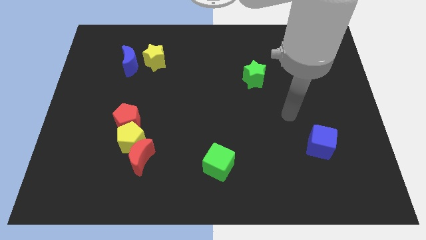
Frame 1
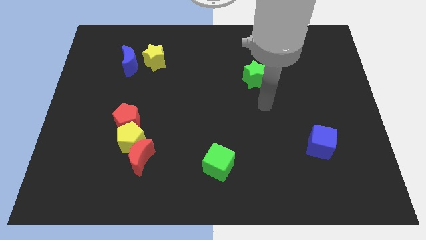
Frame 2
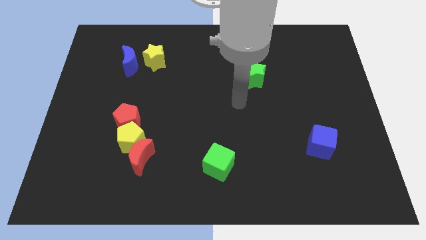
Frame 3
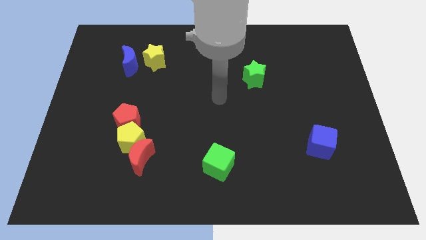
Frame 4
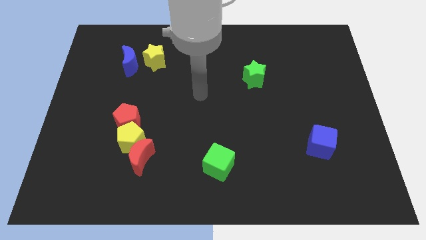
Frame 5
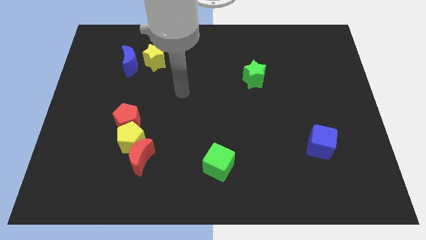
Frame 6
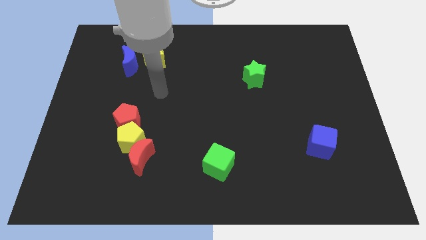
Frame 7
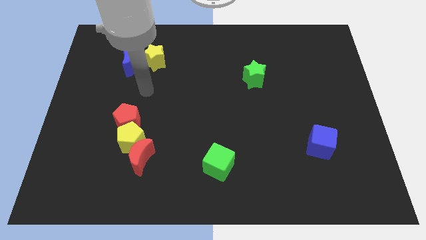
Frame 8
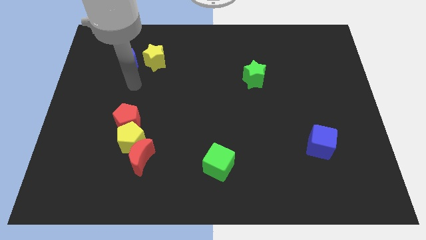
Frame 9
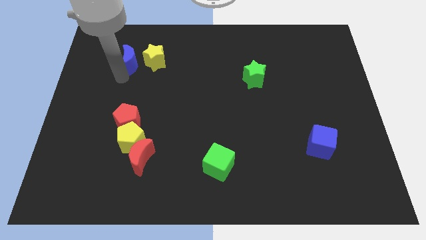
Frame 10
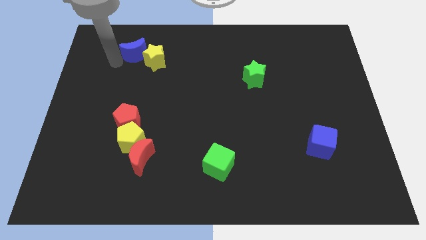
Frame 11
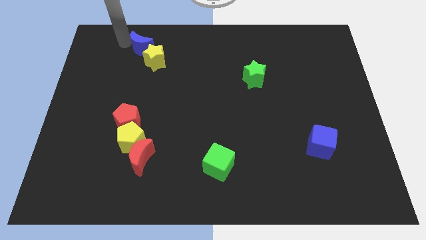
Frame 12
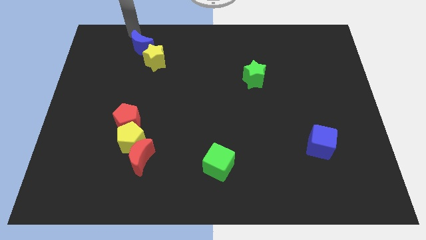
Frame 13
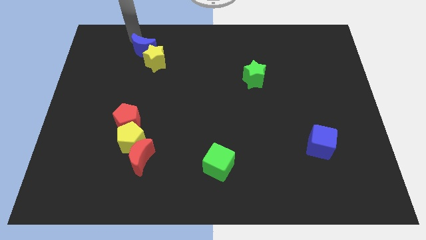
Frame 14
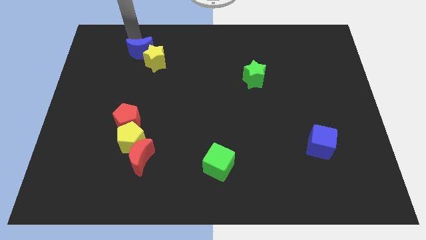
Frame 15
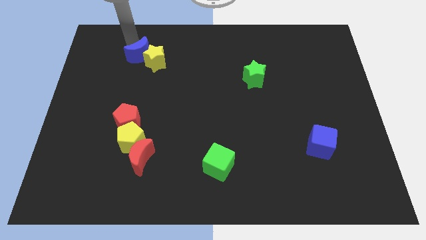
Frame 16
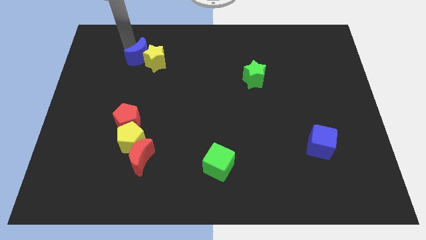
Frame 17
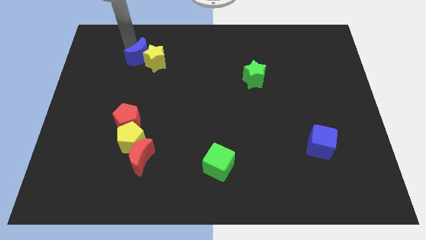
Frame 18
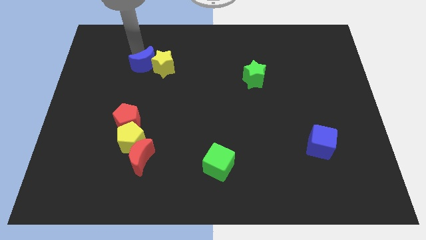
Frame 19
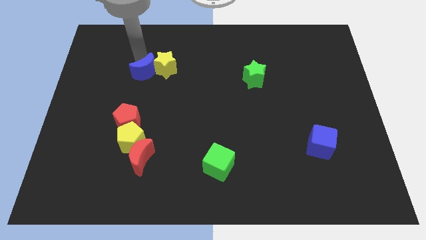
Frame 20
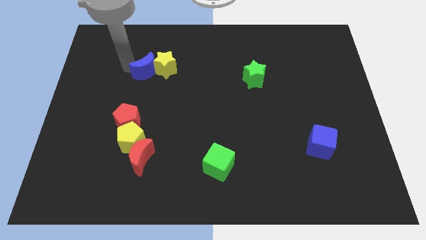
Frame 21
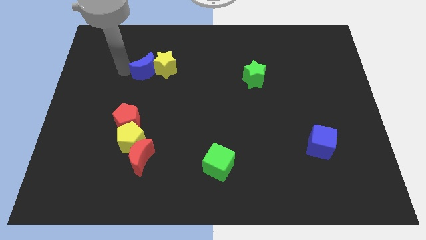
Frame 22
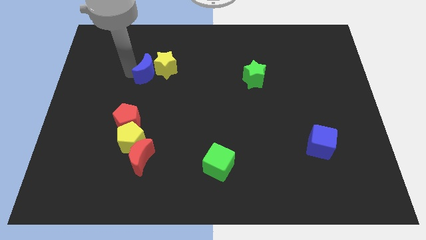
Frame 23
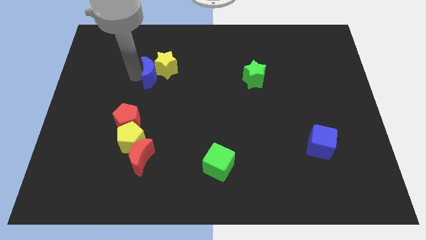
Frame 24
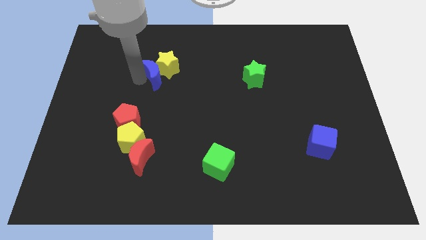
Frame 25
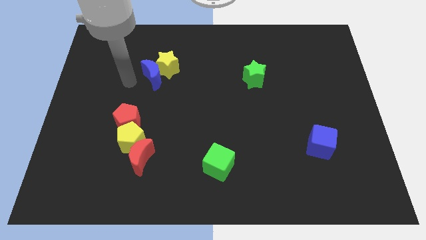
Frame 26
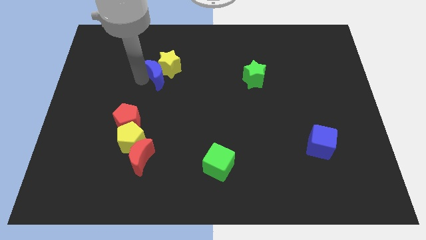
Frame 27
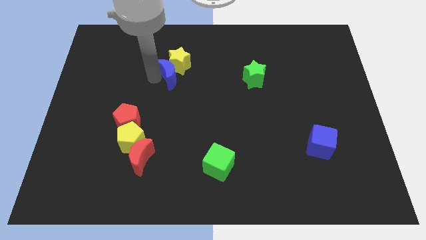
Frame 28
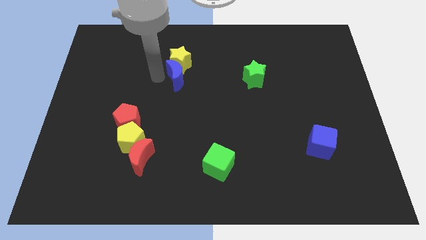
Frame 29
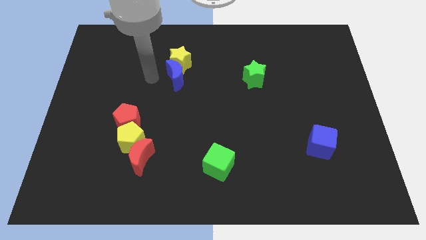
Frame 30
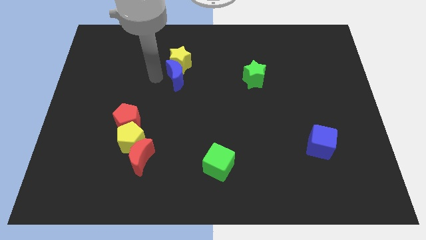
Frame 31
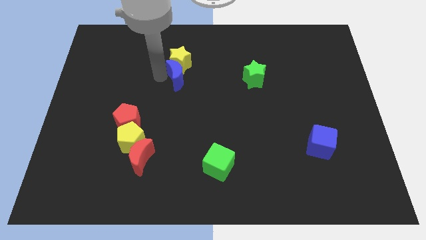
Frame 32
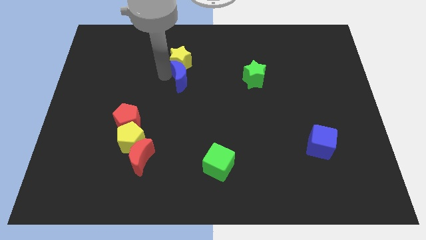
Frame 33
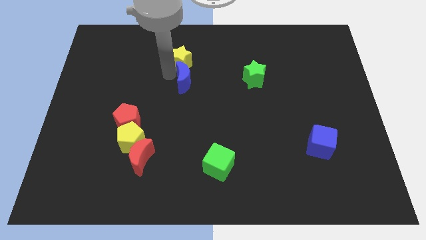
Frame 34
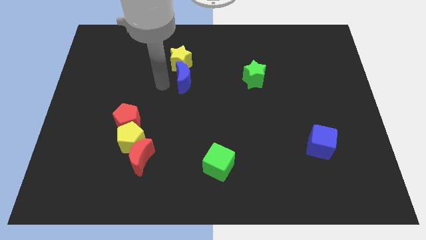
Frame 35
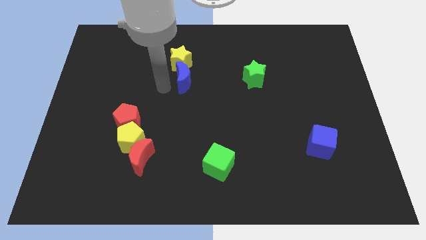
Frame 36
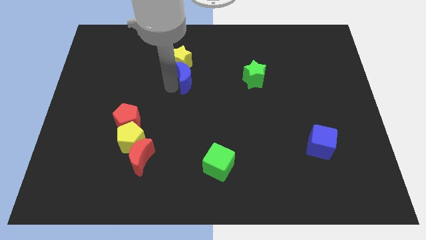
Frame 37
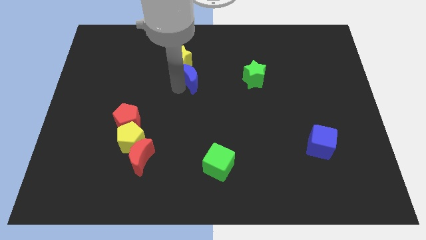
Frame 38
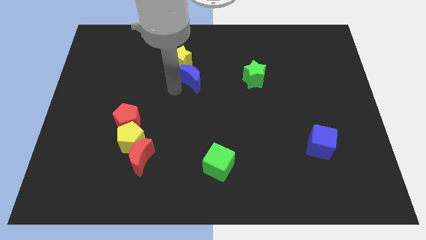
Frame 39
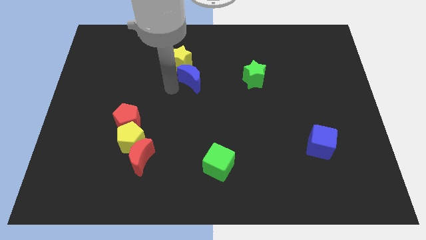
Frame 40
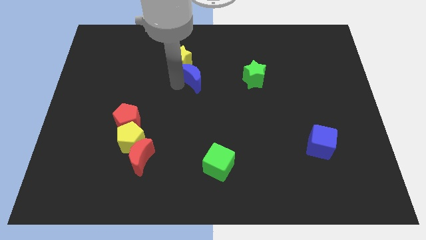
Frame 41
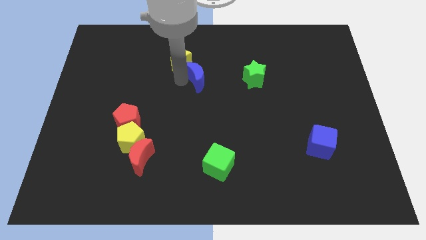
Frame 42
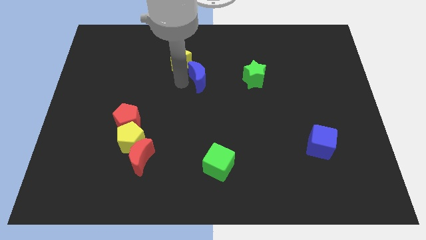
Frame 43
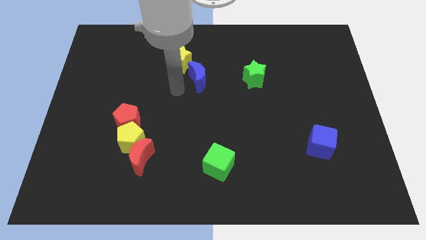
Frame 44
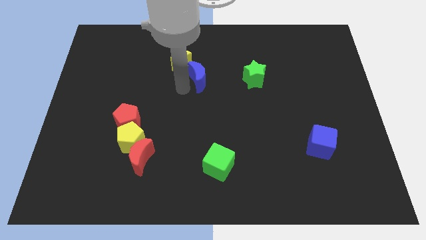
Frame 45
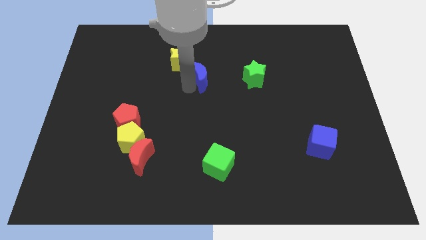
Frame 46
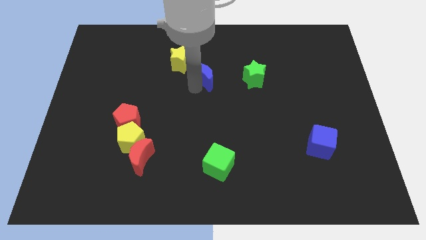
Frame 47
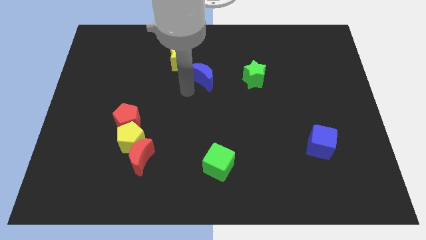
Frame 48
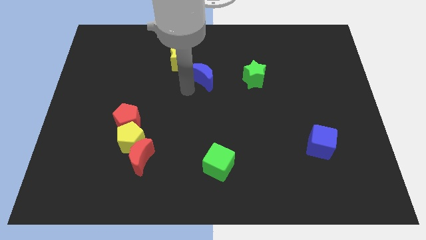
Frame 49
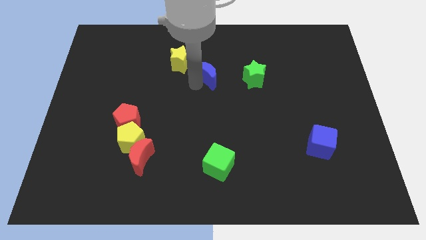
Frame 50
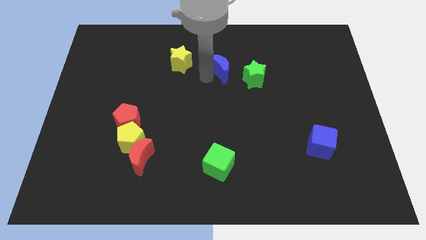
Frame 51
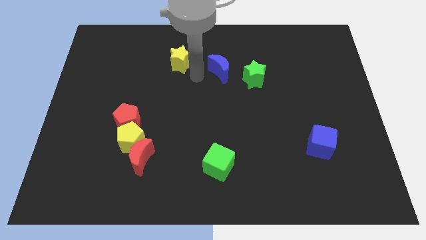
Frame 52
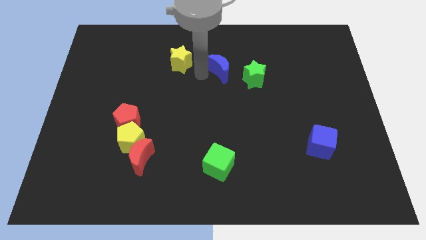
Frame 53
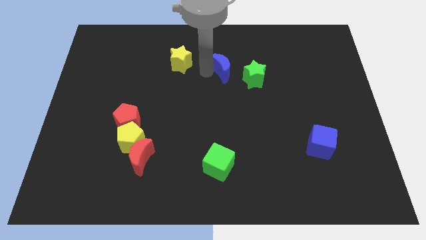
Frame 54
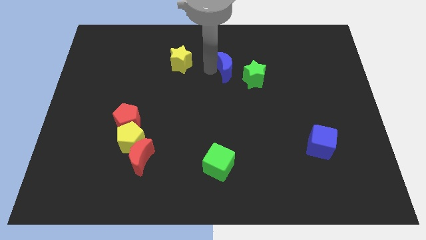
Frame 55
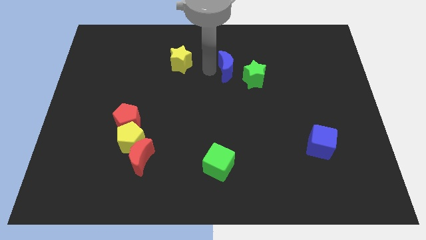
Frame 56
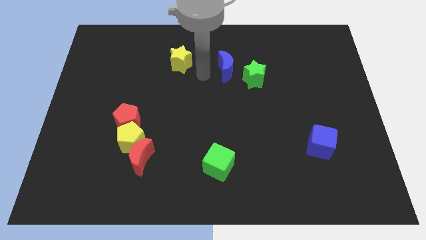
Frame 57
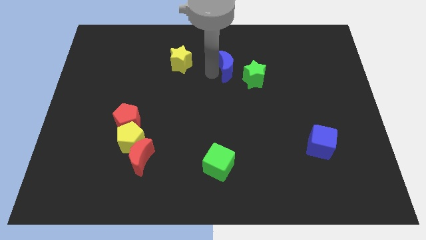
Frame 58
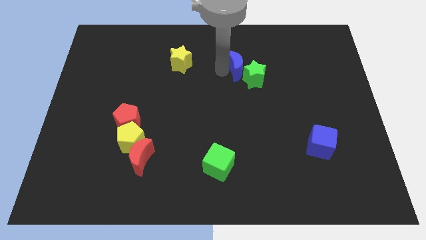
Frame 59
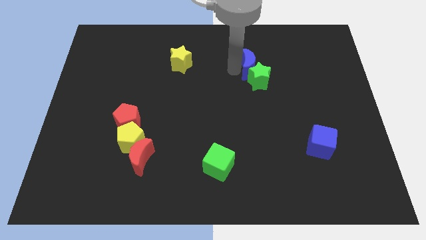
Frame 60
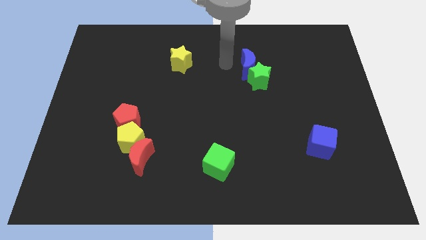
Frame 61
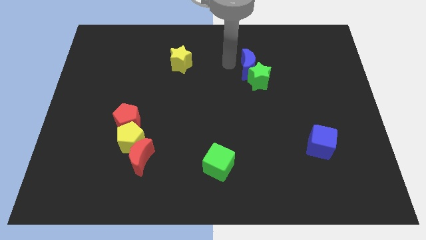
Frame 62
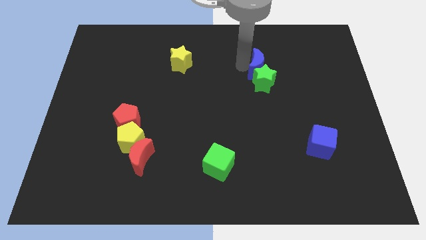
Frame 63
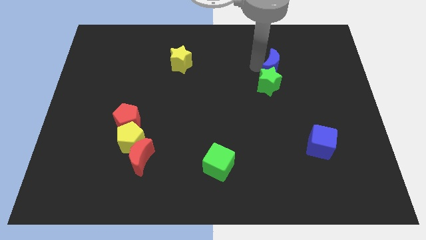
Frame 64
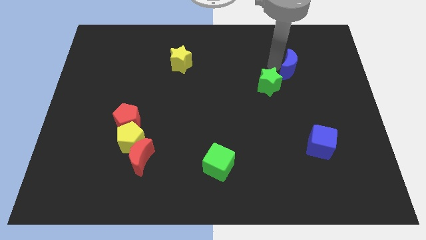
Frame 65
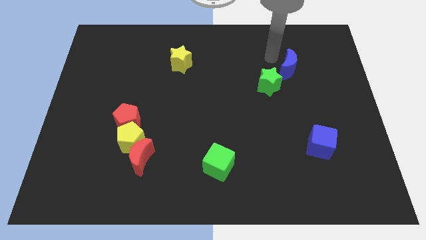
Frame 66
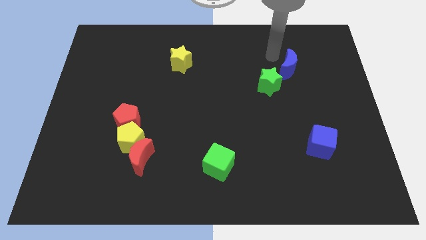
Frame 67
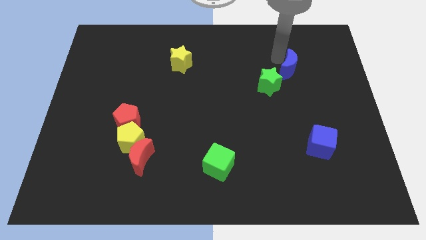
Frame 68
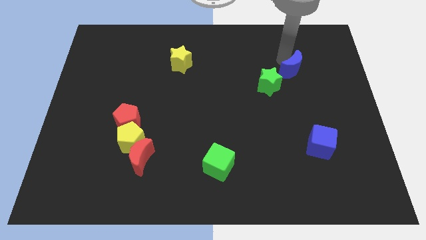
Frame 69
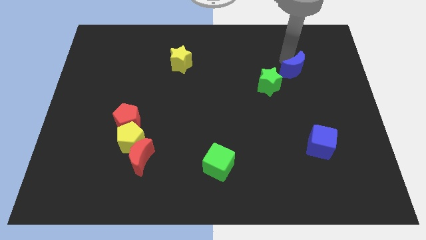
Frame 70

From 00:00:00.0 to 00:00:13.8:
push the blue moon just right of the green star
